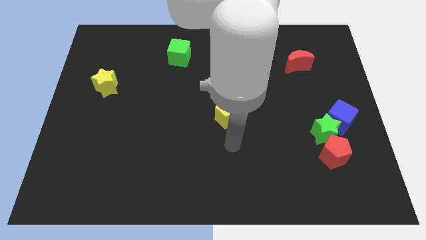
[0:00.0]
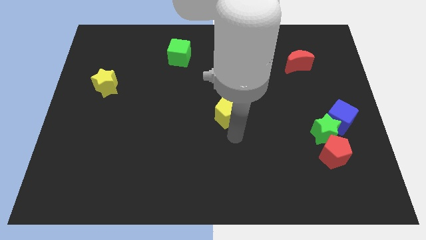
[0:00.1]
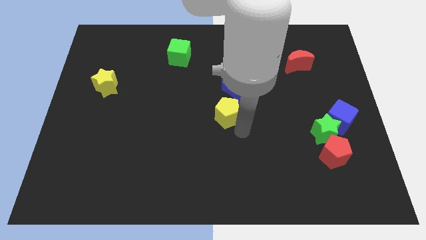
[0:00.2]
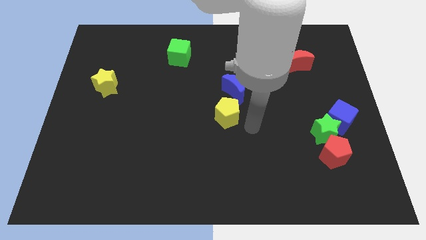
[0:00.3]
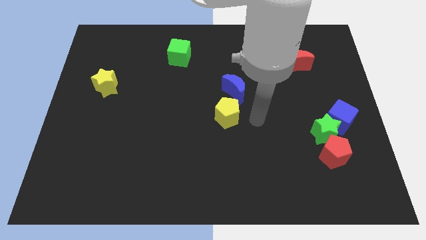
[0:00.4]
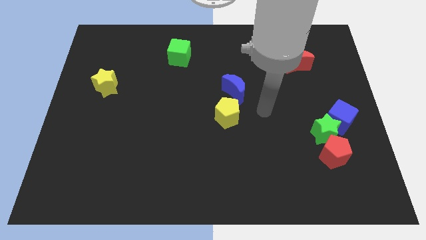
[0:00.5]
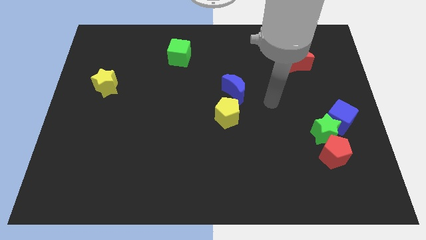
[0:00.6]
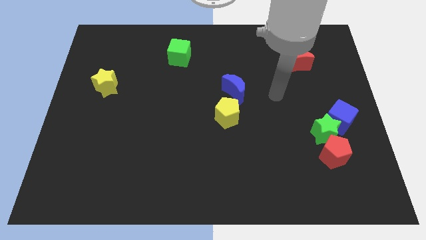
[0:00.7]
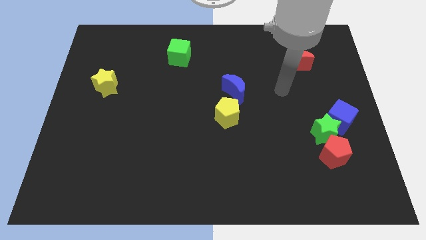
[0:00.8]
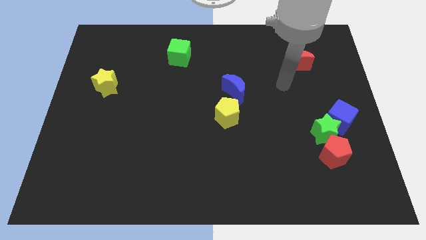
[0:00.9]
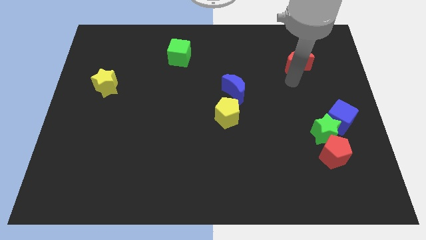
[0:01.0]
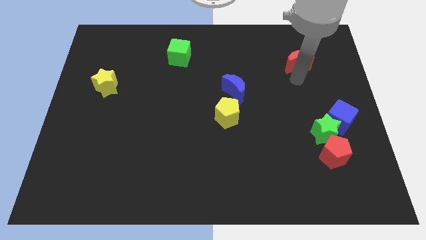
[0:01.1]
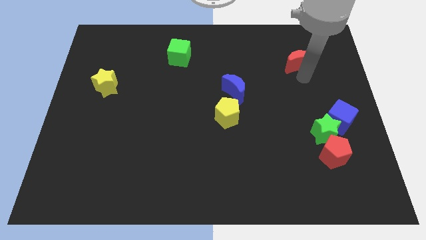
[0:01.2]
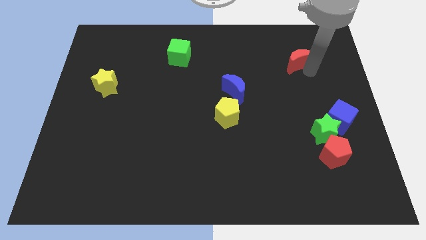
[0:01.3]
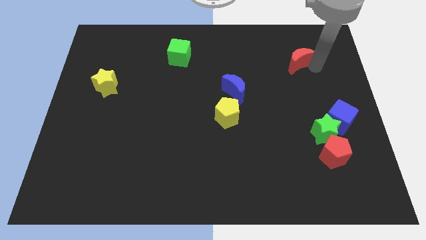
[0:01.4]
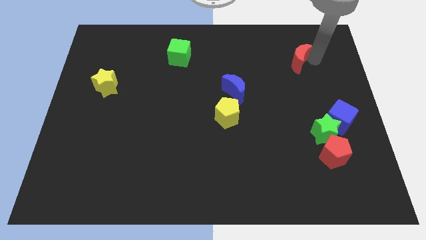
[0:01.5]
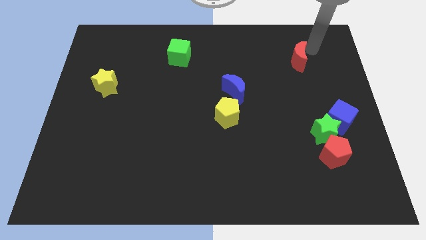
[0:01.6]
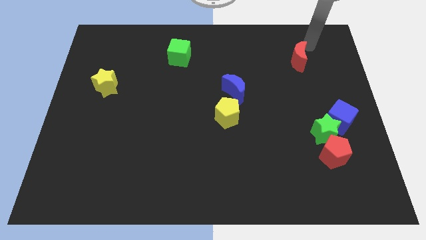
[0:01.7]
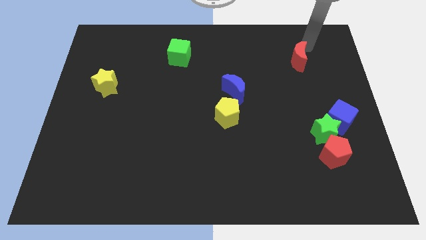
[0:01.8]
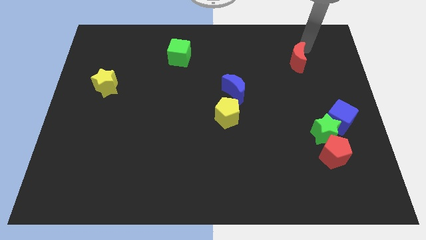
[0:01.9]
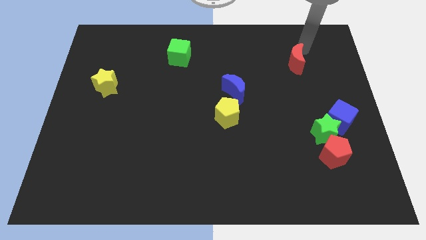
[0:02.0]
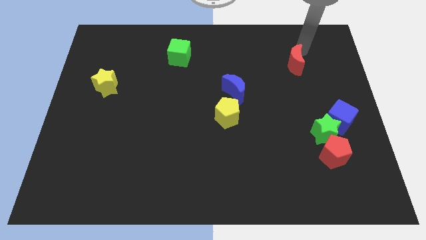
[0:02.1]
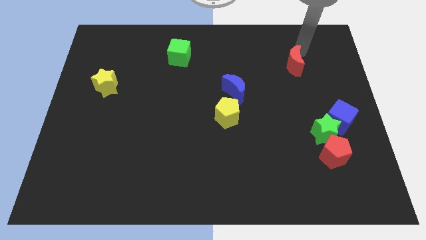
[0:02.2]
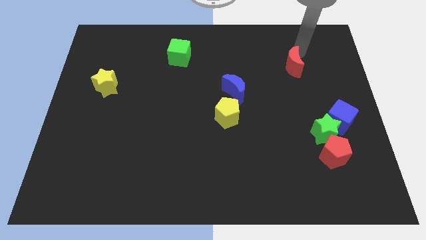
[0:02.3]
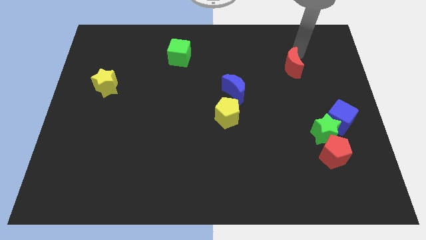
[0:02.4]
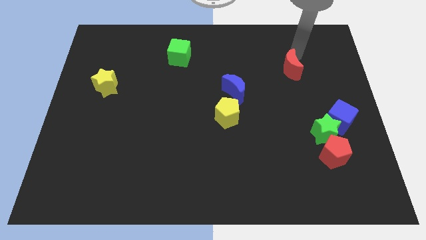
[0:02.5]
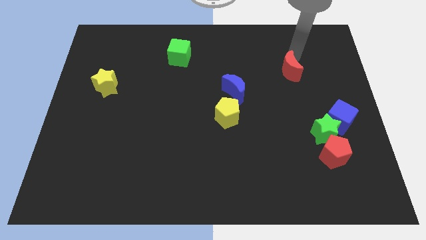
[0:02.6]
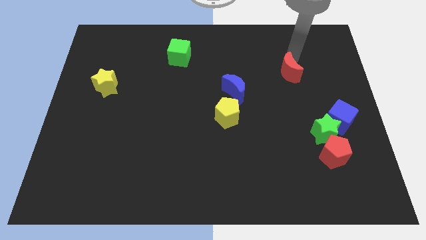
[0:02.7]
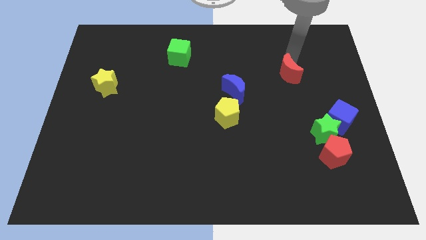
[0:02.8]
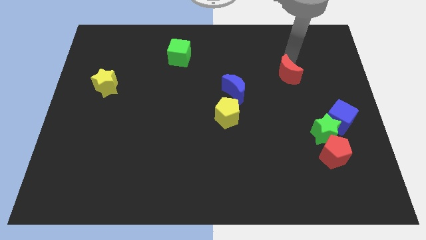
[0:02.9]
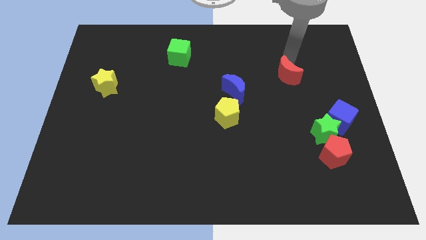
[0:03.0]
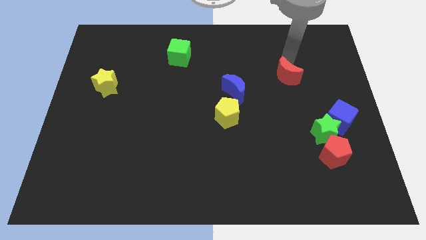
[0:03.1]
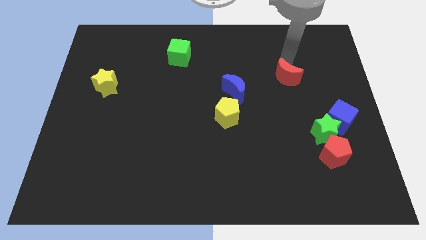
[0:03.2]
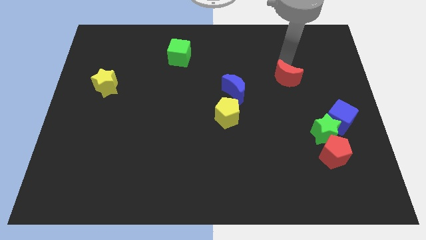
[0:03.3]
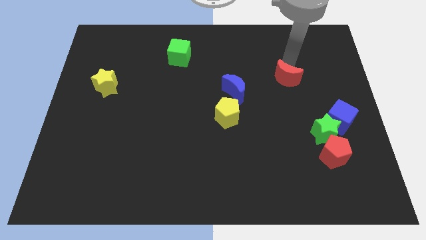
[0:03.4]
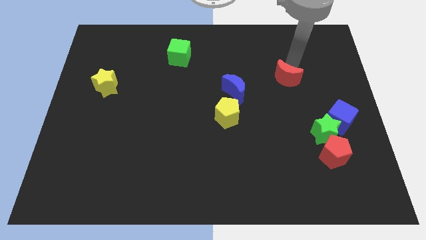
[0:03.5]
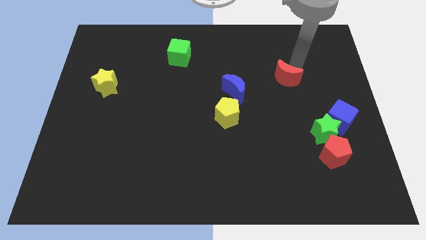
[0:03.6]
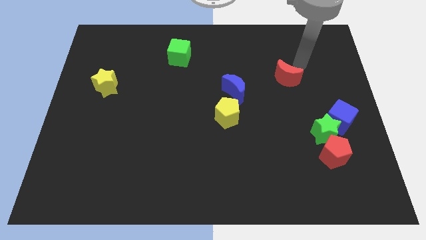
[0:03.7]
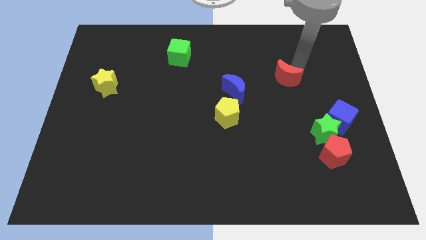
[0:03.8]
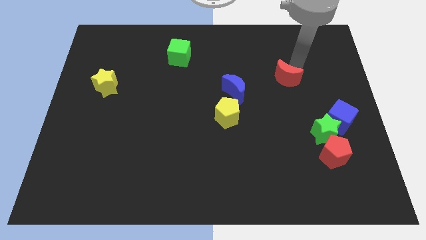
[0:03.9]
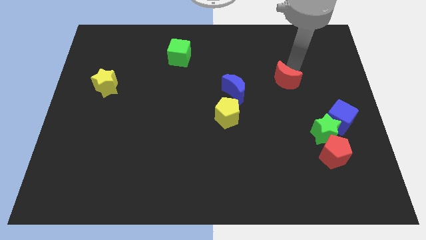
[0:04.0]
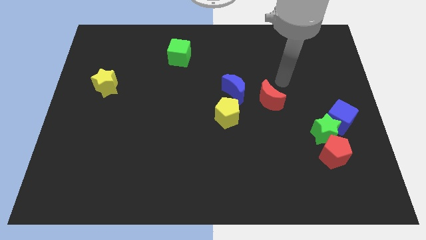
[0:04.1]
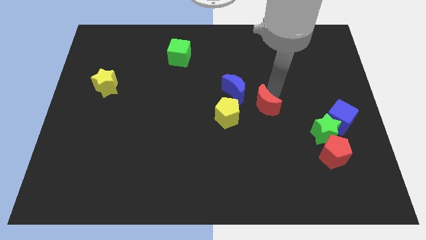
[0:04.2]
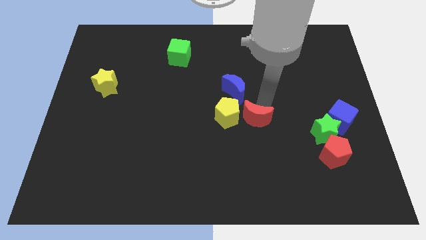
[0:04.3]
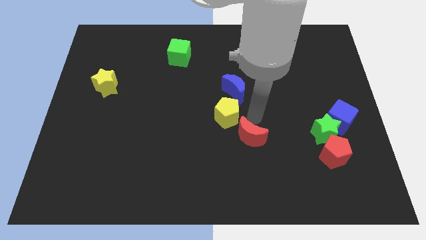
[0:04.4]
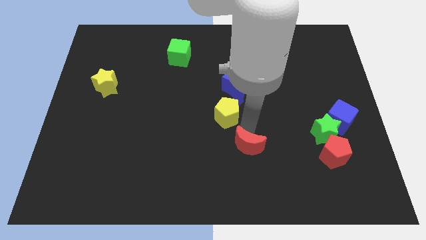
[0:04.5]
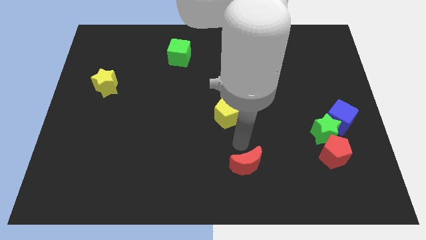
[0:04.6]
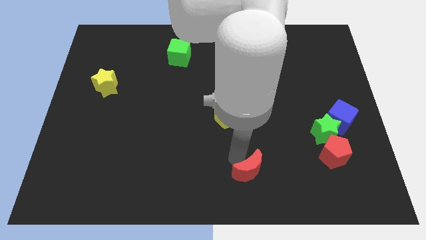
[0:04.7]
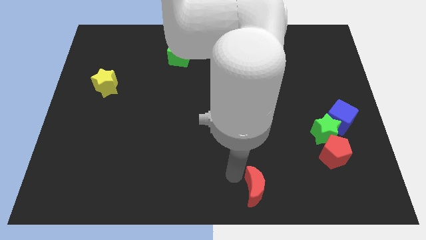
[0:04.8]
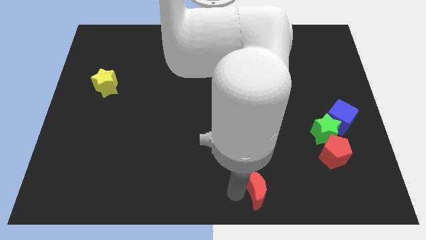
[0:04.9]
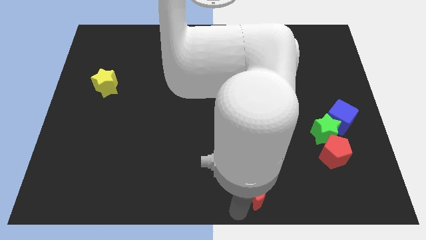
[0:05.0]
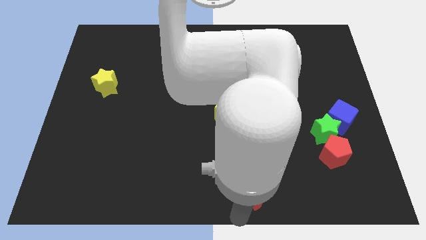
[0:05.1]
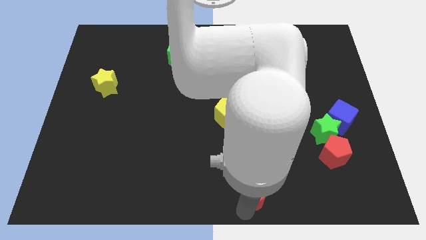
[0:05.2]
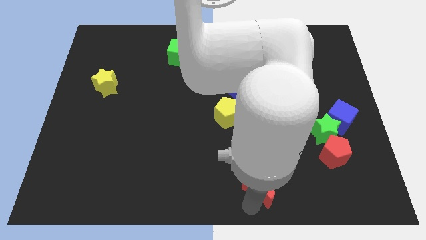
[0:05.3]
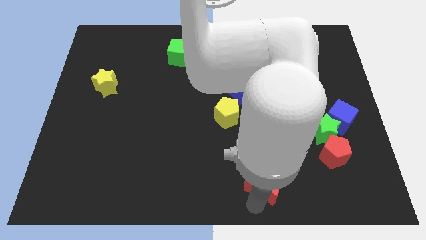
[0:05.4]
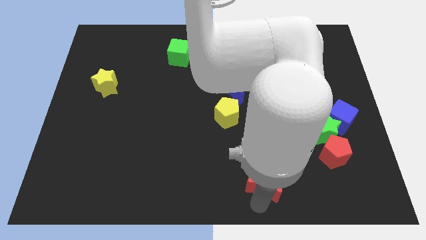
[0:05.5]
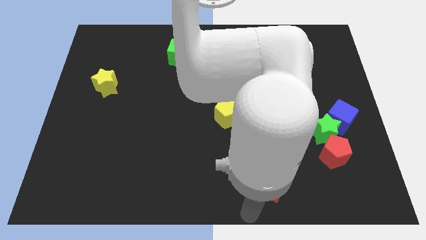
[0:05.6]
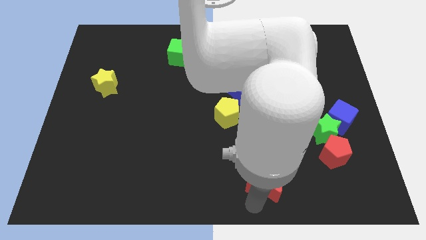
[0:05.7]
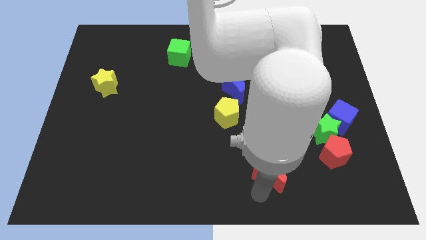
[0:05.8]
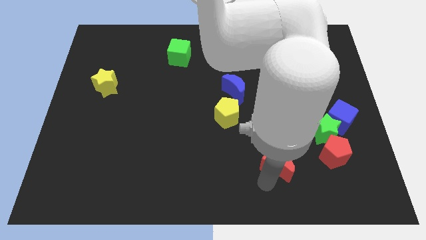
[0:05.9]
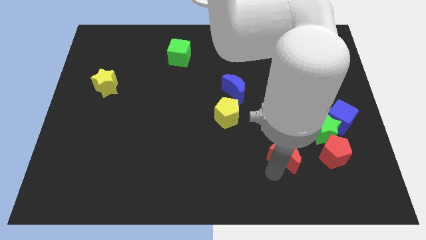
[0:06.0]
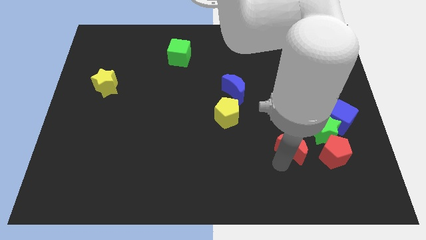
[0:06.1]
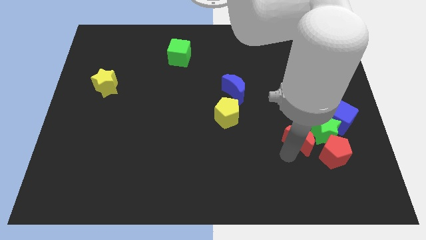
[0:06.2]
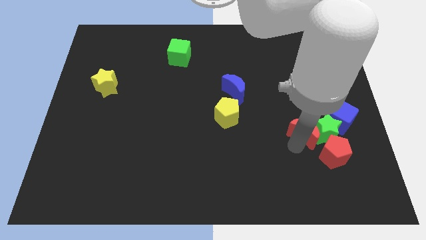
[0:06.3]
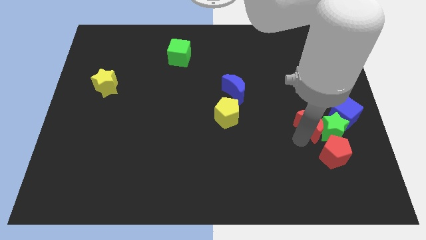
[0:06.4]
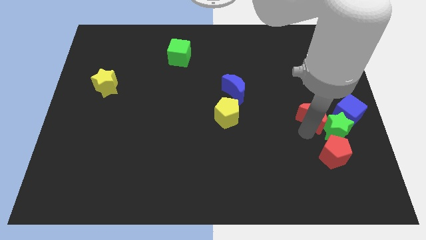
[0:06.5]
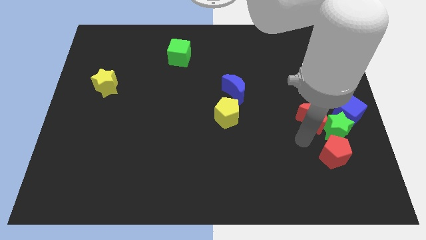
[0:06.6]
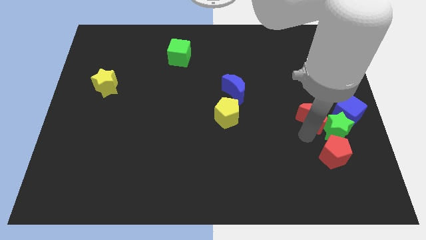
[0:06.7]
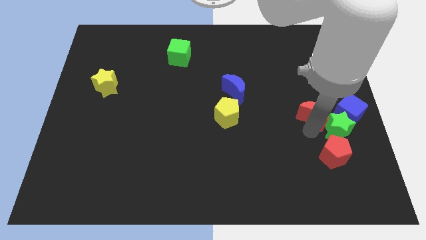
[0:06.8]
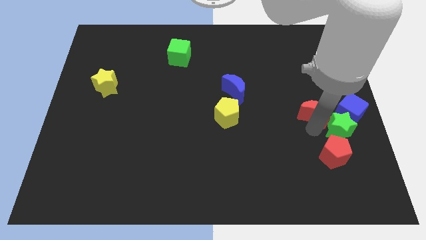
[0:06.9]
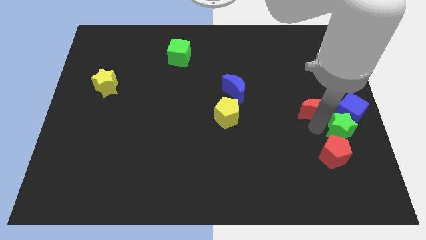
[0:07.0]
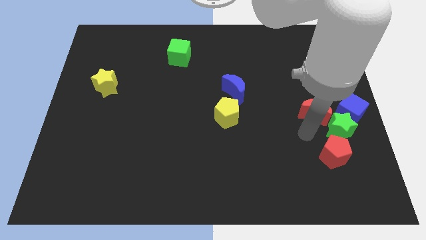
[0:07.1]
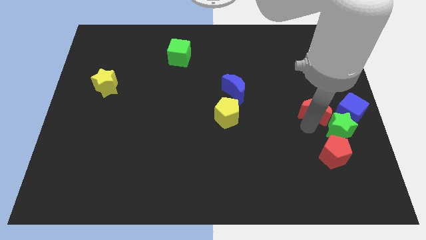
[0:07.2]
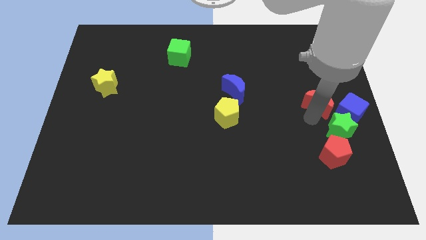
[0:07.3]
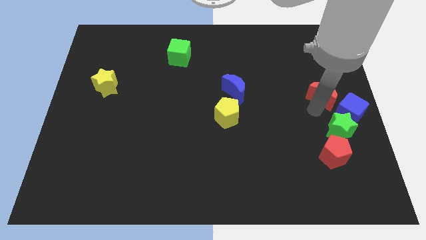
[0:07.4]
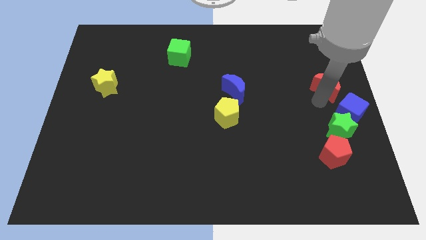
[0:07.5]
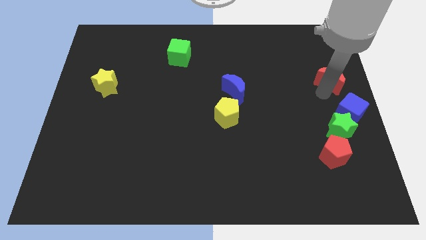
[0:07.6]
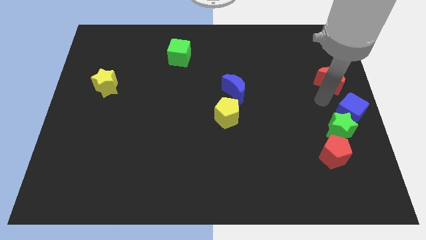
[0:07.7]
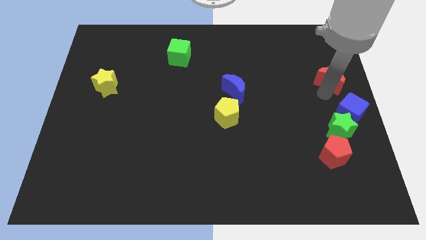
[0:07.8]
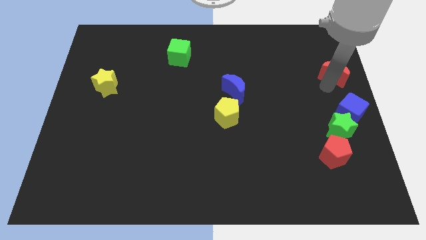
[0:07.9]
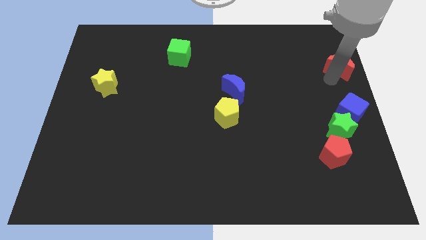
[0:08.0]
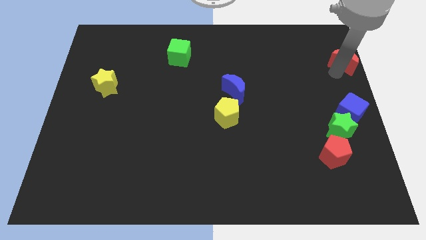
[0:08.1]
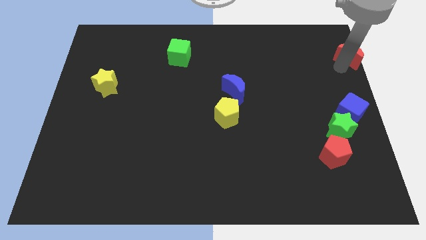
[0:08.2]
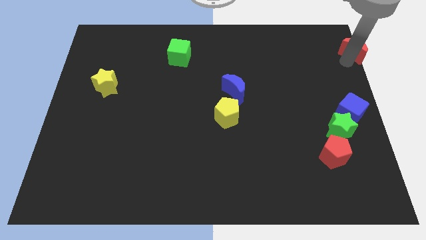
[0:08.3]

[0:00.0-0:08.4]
push the red moon to the top right
